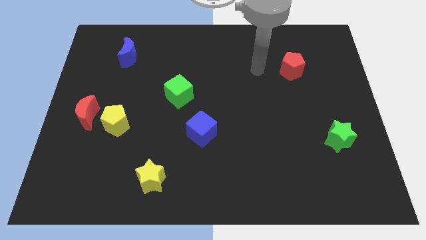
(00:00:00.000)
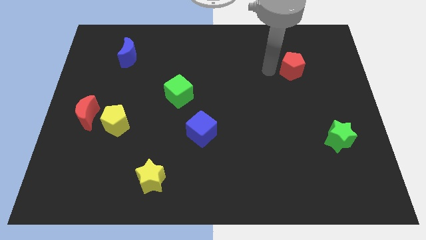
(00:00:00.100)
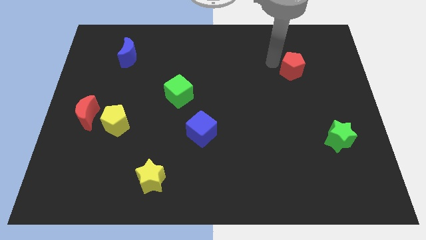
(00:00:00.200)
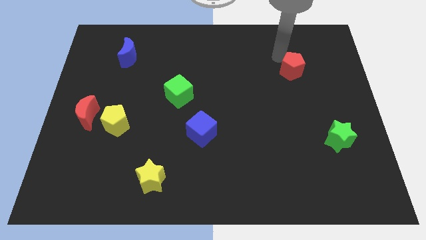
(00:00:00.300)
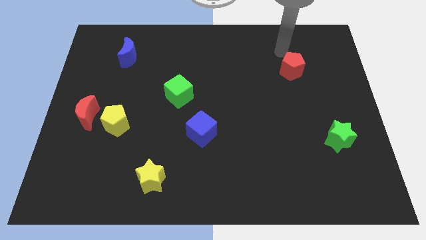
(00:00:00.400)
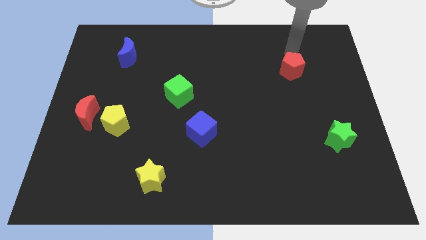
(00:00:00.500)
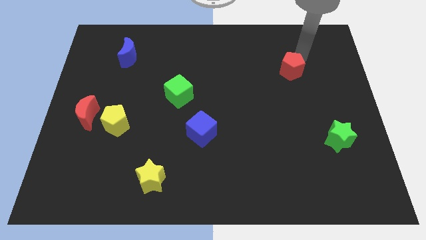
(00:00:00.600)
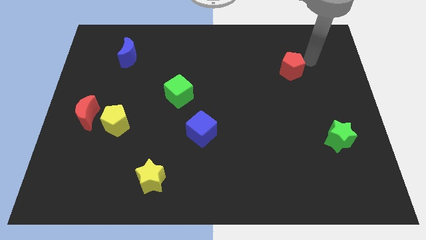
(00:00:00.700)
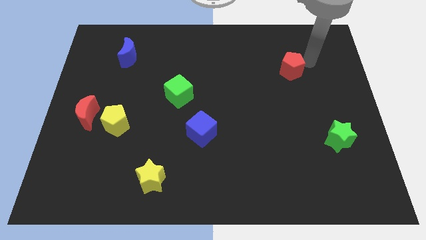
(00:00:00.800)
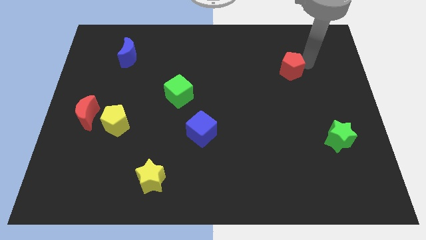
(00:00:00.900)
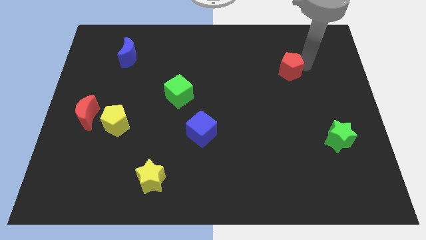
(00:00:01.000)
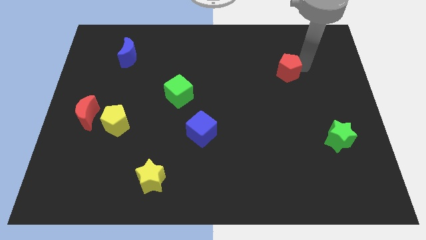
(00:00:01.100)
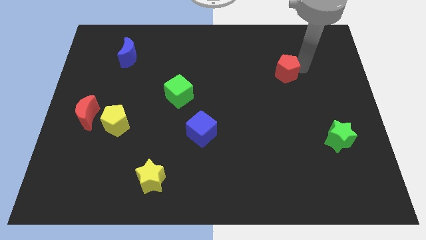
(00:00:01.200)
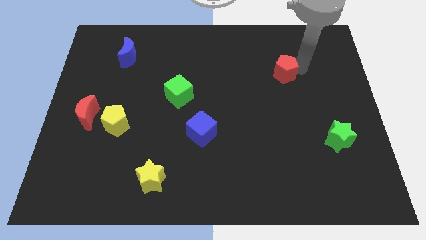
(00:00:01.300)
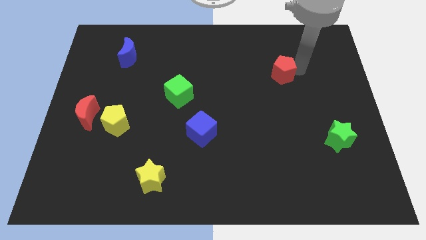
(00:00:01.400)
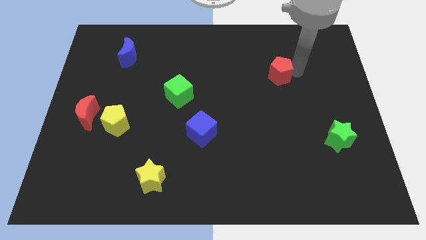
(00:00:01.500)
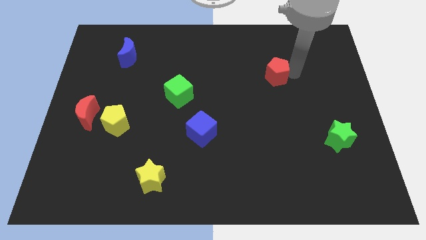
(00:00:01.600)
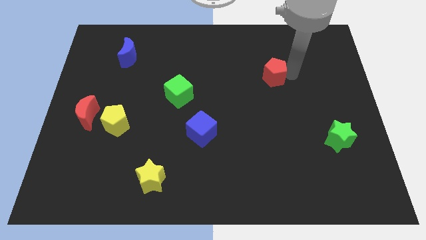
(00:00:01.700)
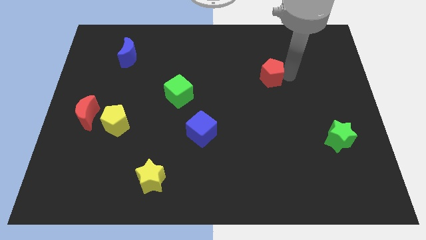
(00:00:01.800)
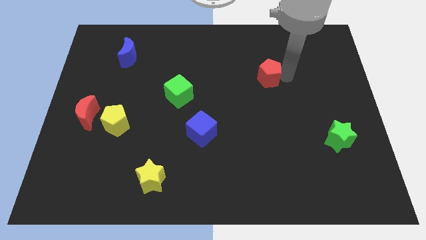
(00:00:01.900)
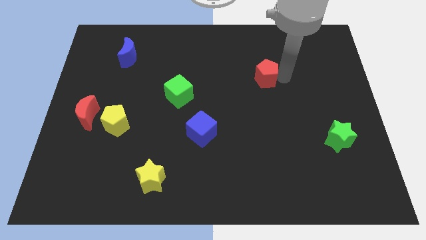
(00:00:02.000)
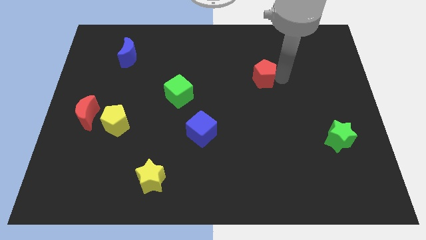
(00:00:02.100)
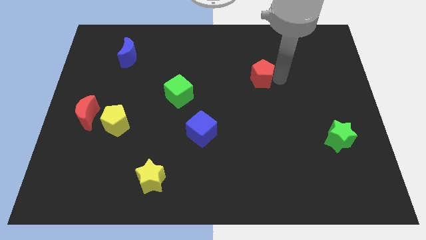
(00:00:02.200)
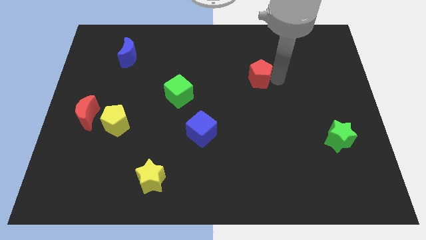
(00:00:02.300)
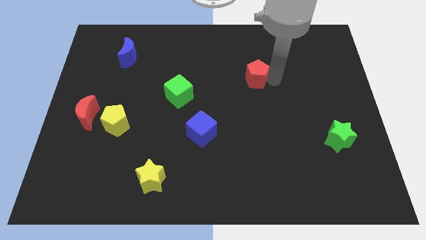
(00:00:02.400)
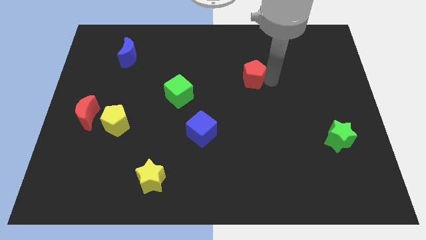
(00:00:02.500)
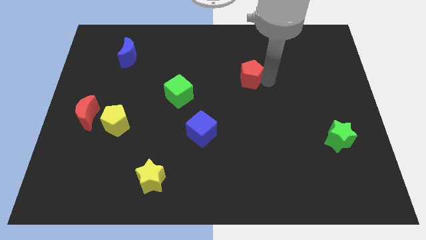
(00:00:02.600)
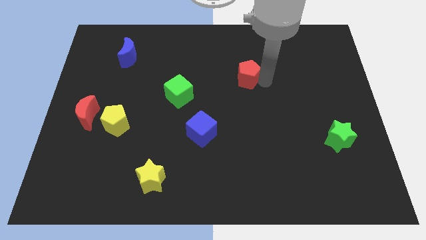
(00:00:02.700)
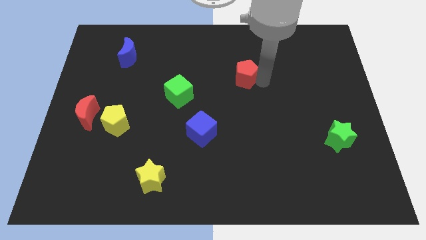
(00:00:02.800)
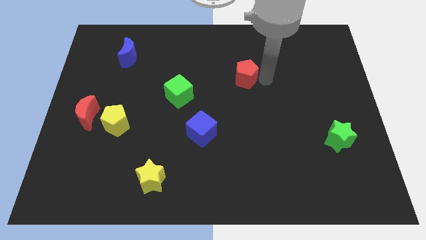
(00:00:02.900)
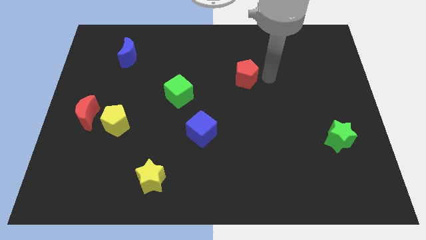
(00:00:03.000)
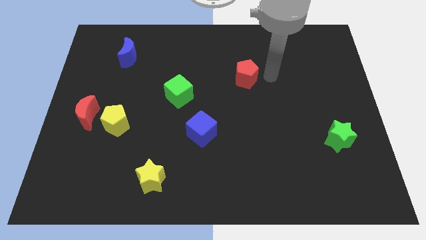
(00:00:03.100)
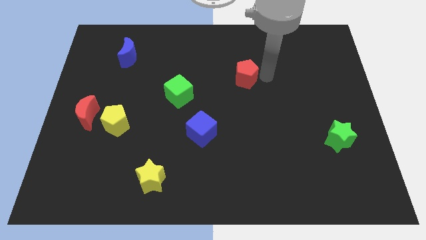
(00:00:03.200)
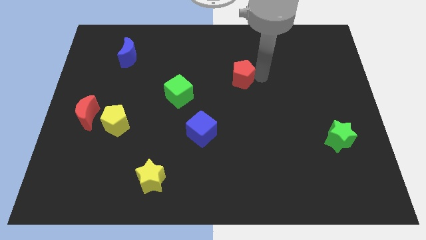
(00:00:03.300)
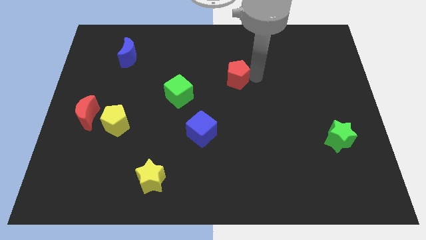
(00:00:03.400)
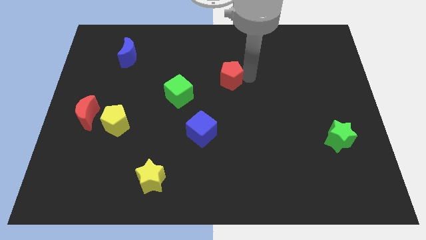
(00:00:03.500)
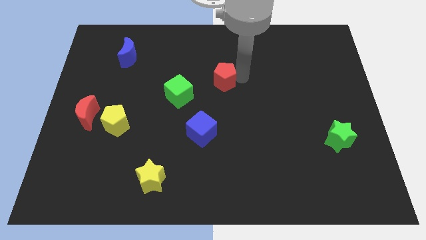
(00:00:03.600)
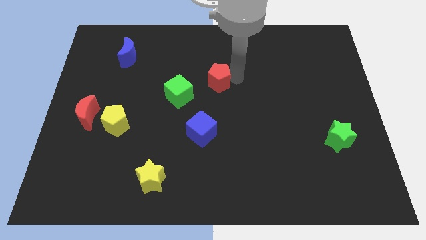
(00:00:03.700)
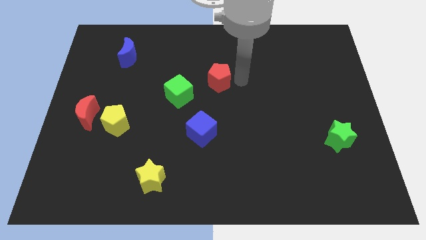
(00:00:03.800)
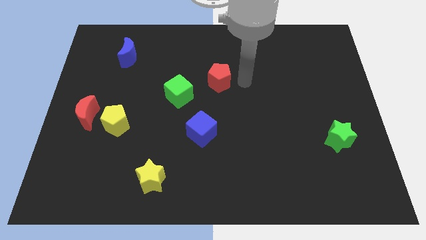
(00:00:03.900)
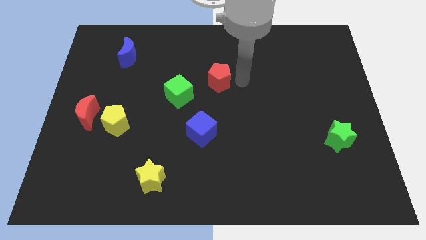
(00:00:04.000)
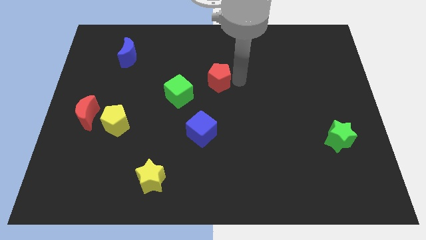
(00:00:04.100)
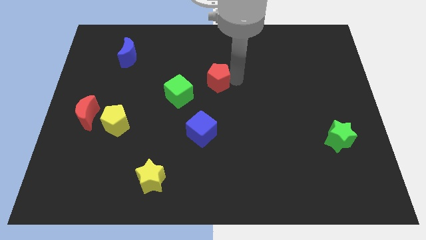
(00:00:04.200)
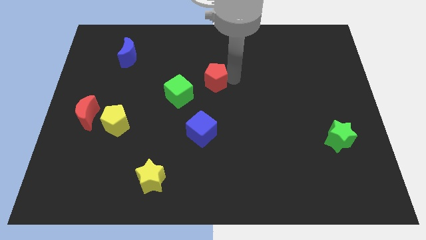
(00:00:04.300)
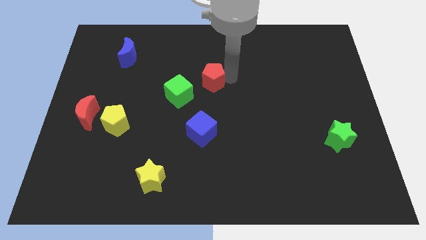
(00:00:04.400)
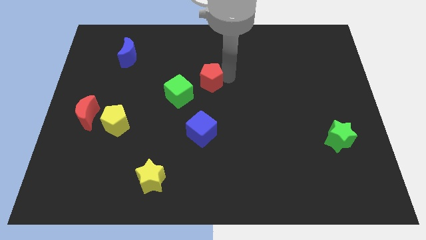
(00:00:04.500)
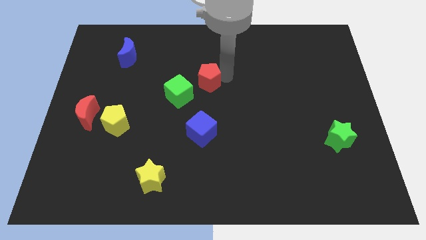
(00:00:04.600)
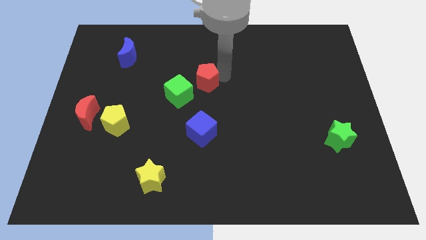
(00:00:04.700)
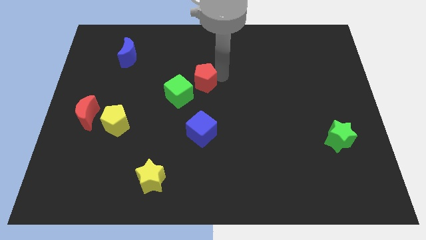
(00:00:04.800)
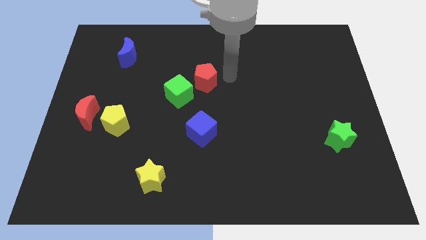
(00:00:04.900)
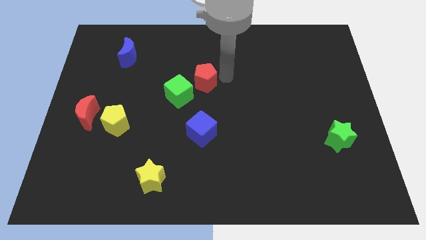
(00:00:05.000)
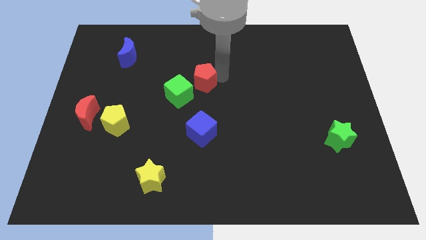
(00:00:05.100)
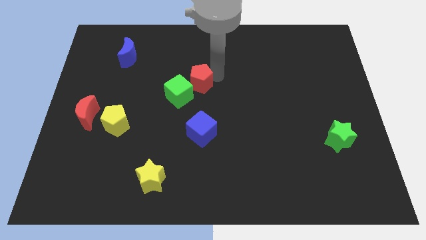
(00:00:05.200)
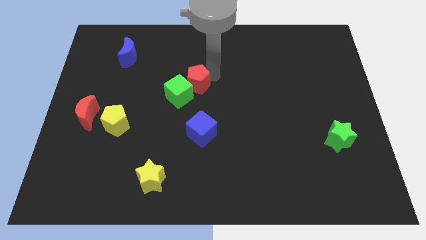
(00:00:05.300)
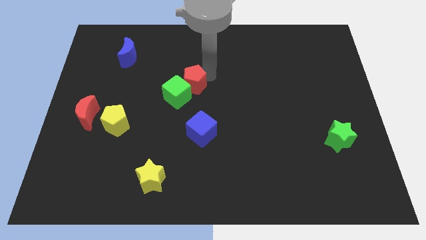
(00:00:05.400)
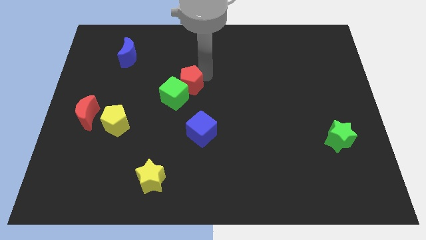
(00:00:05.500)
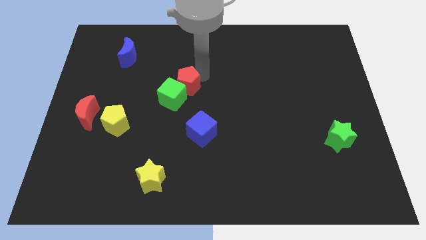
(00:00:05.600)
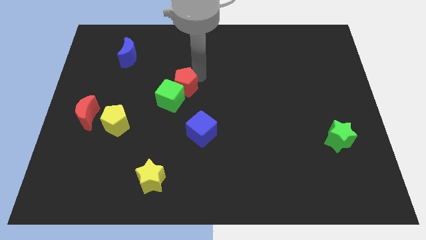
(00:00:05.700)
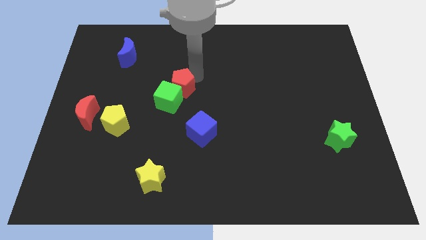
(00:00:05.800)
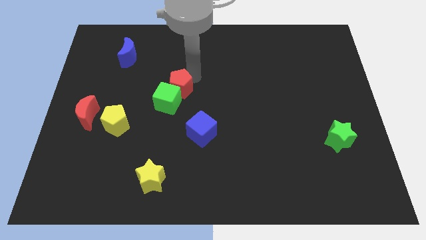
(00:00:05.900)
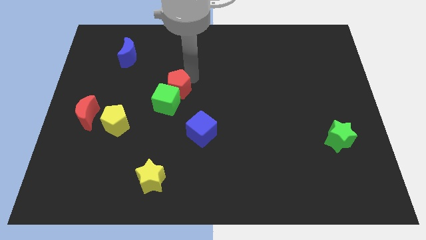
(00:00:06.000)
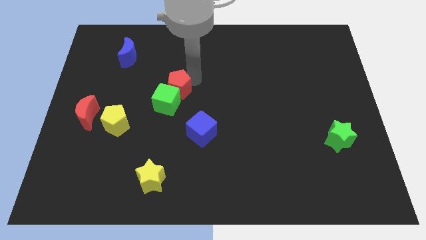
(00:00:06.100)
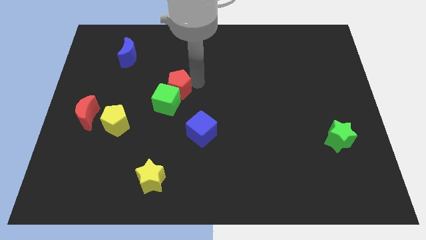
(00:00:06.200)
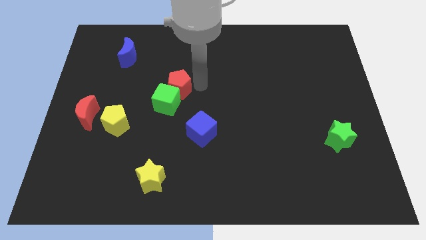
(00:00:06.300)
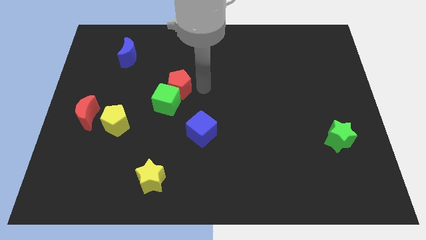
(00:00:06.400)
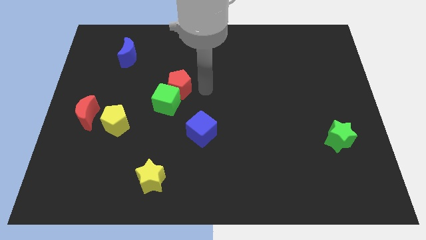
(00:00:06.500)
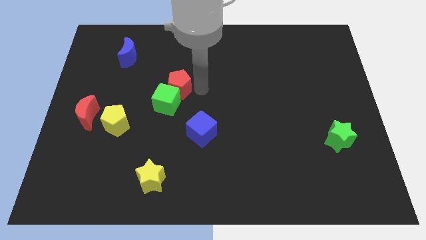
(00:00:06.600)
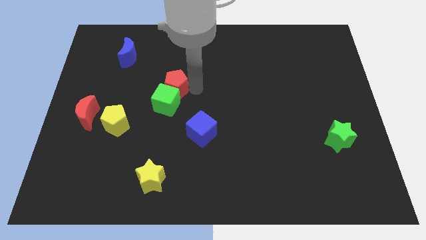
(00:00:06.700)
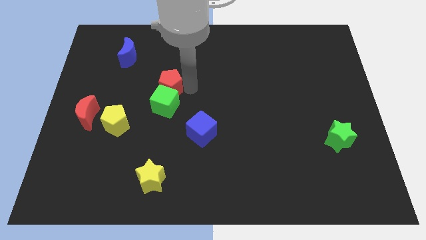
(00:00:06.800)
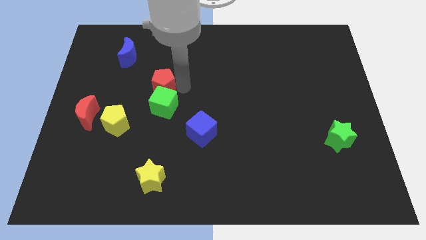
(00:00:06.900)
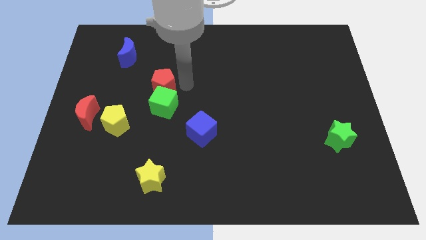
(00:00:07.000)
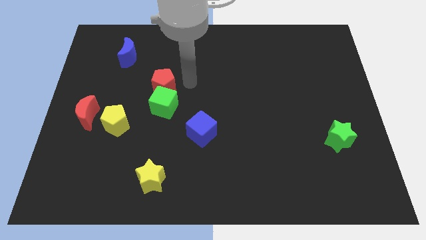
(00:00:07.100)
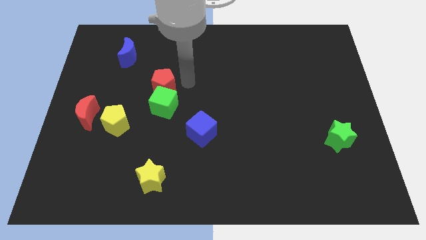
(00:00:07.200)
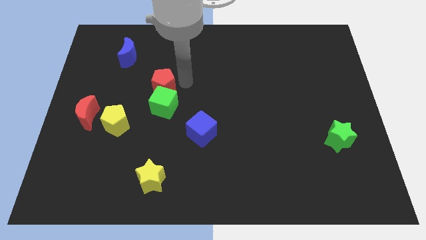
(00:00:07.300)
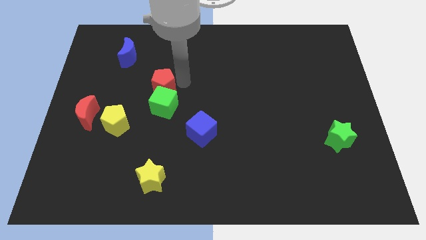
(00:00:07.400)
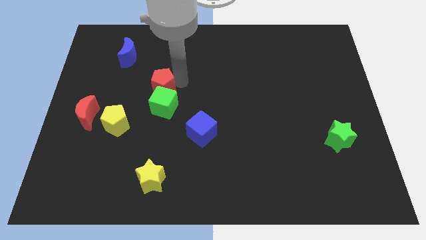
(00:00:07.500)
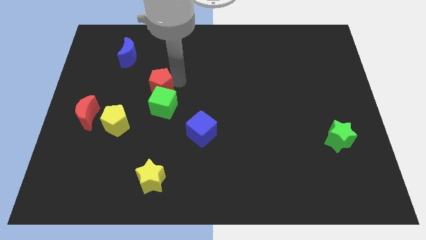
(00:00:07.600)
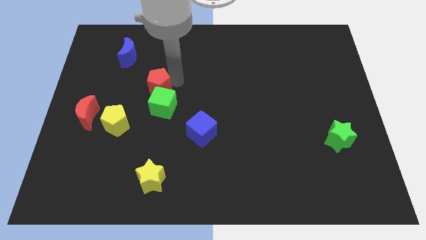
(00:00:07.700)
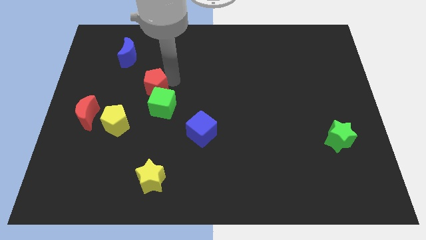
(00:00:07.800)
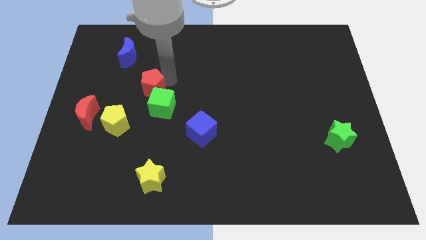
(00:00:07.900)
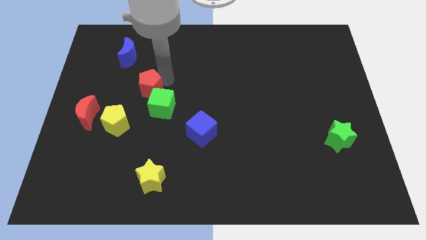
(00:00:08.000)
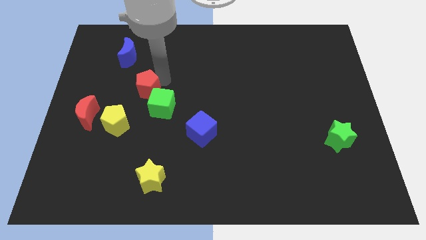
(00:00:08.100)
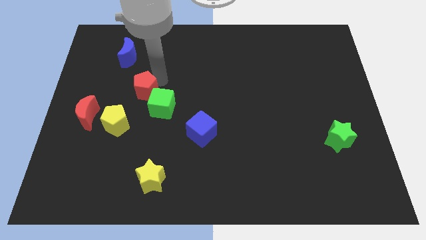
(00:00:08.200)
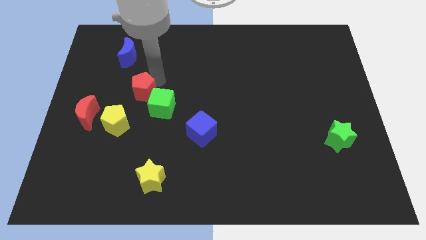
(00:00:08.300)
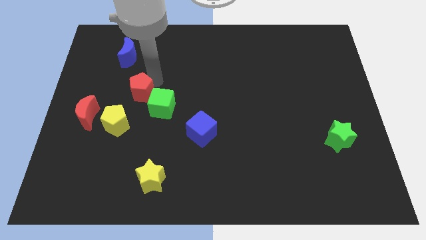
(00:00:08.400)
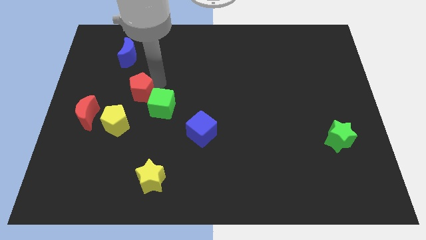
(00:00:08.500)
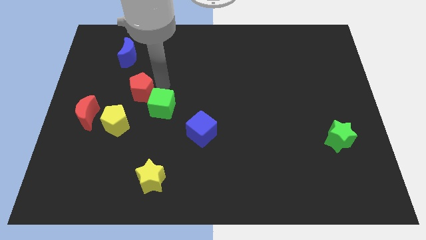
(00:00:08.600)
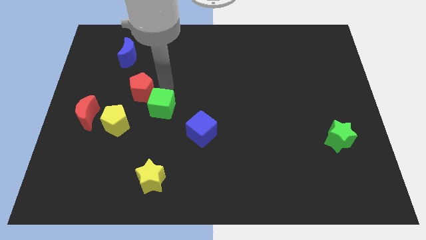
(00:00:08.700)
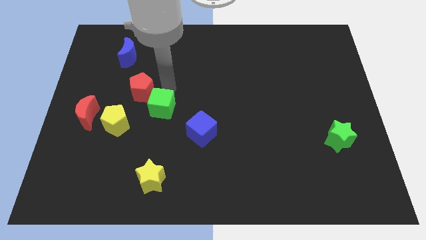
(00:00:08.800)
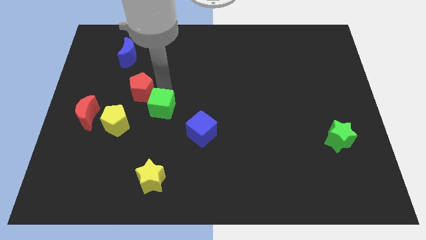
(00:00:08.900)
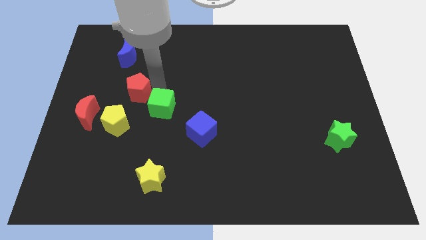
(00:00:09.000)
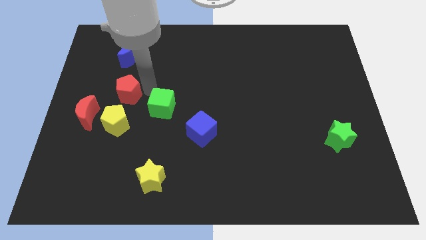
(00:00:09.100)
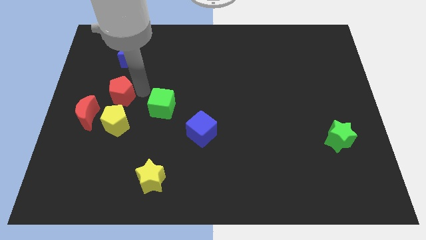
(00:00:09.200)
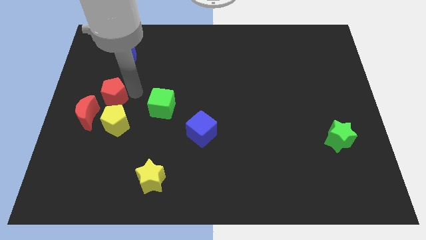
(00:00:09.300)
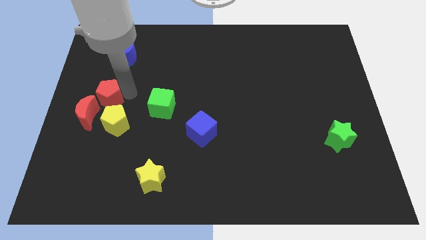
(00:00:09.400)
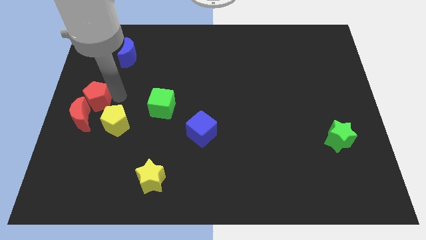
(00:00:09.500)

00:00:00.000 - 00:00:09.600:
put the red pentagon to the left side of the board
